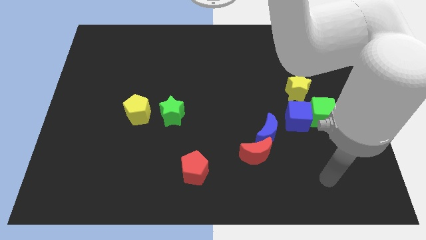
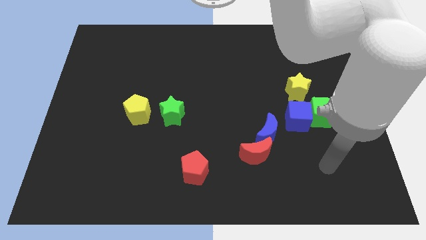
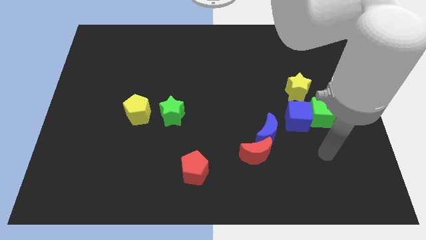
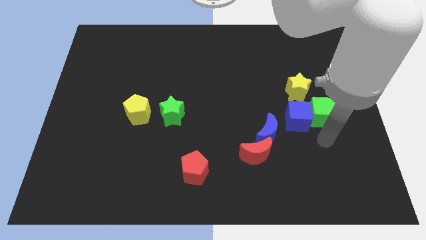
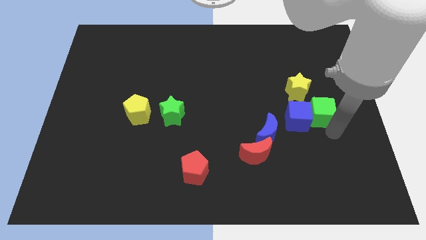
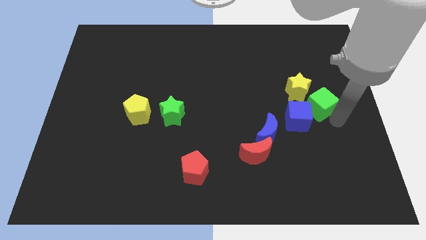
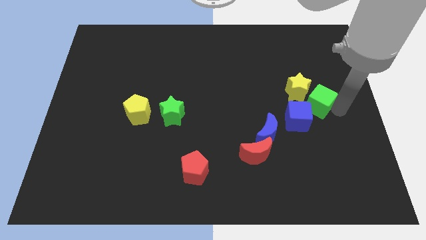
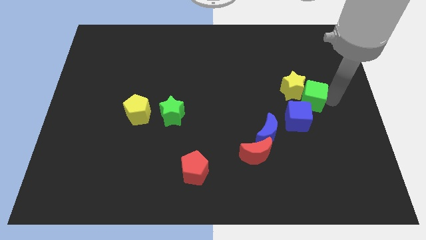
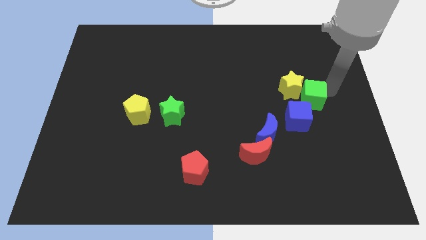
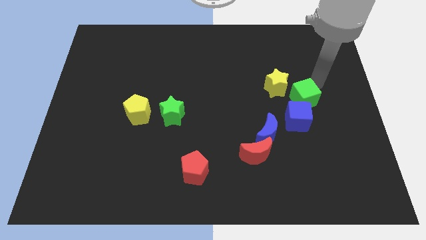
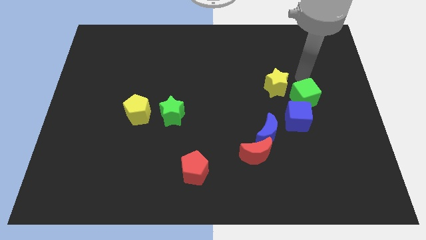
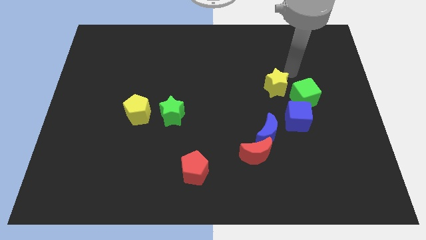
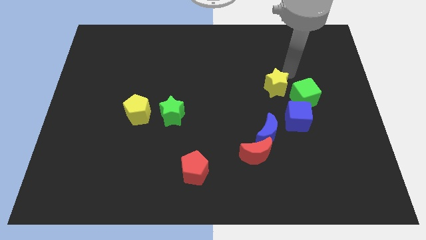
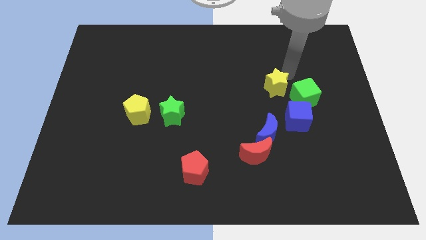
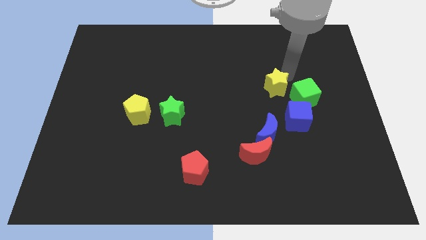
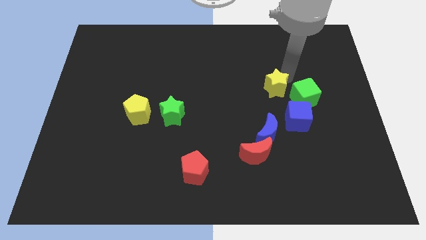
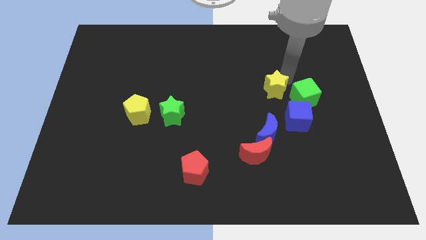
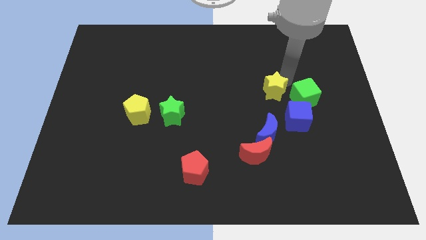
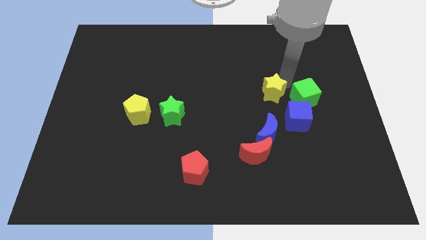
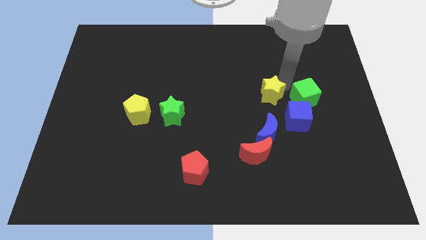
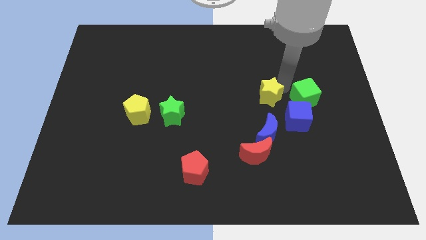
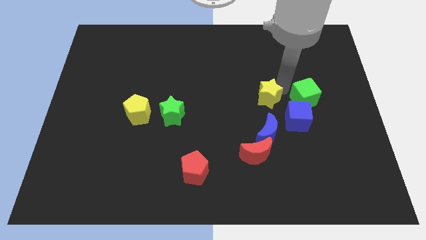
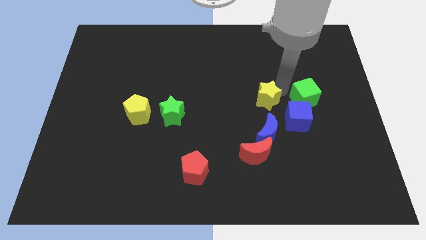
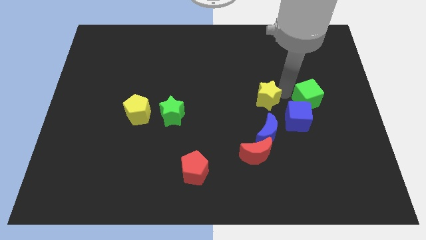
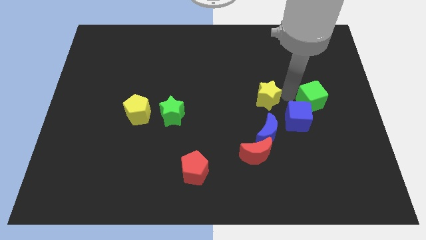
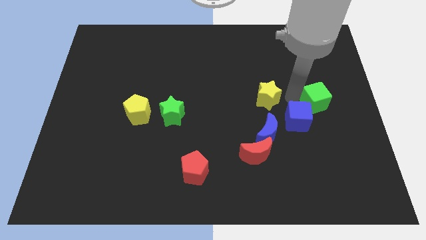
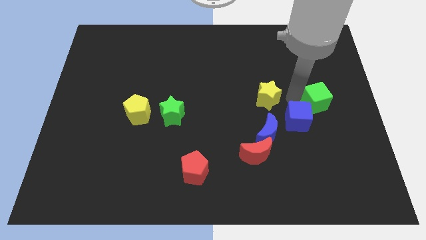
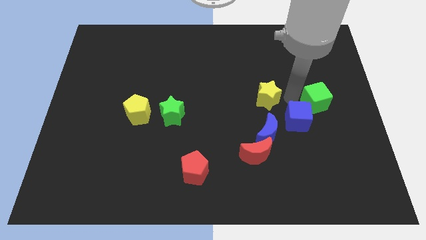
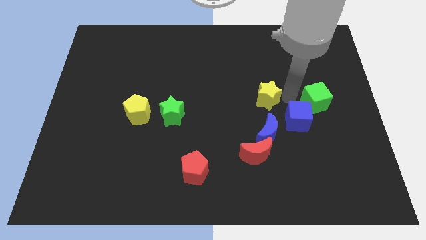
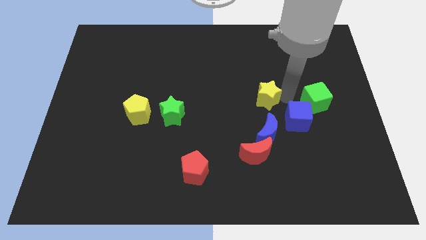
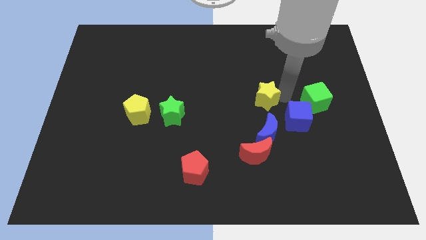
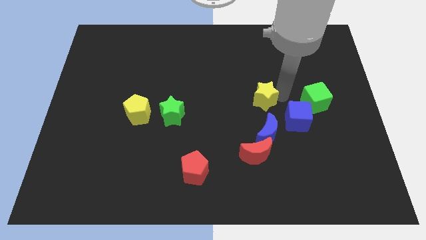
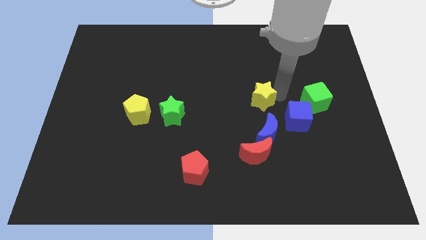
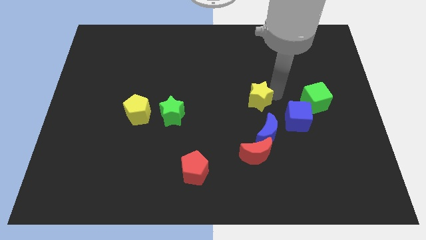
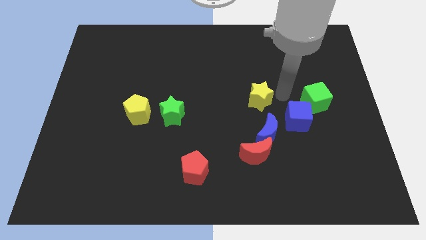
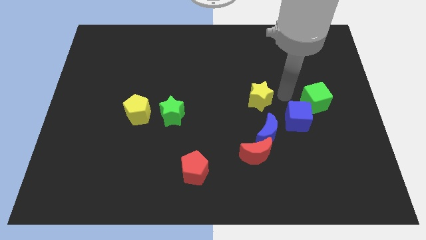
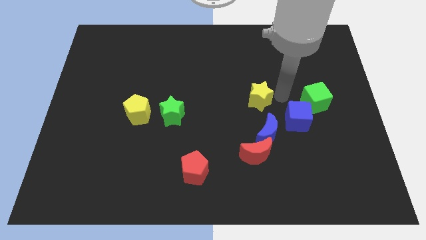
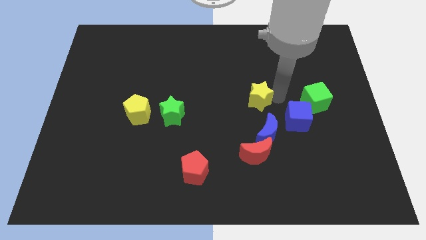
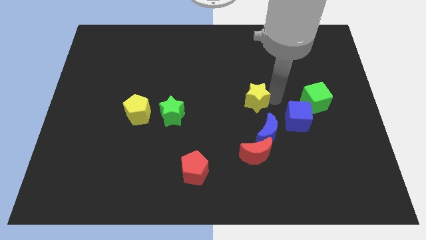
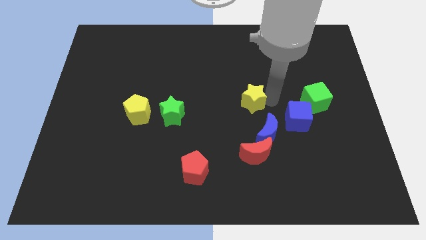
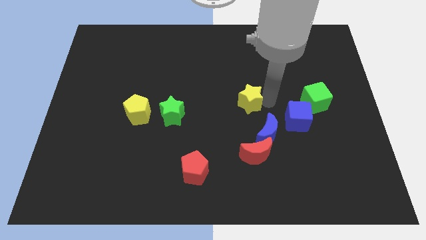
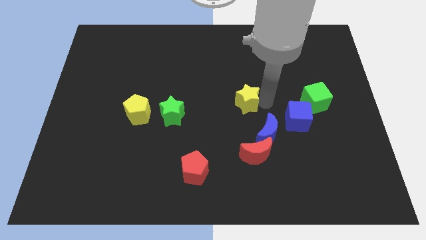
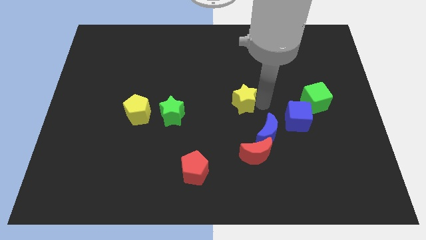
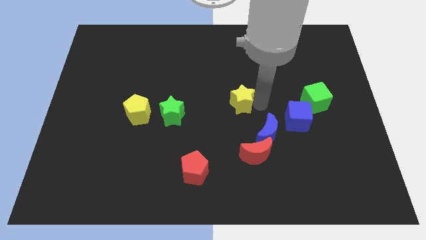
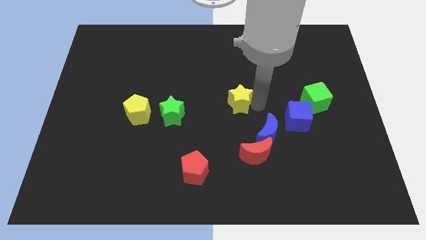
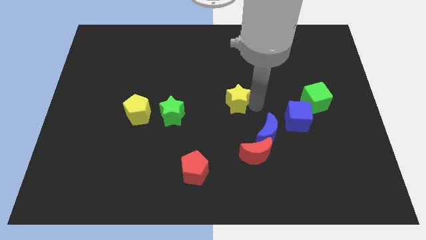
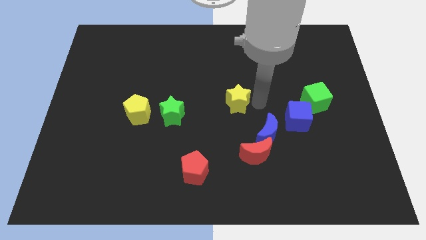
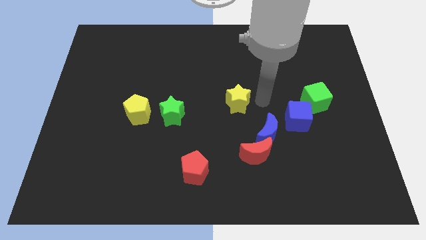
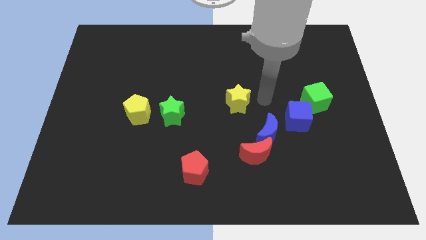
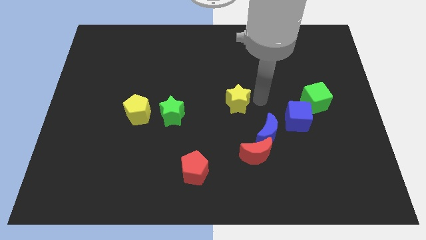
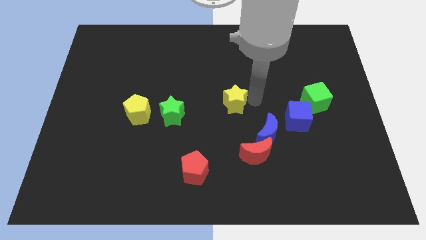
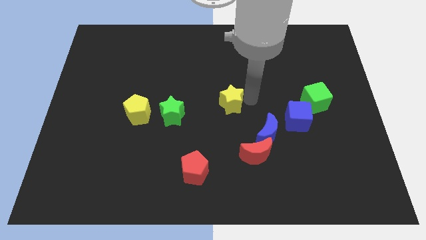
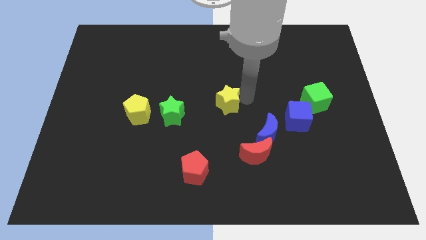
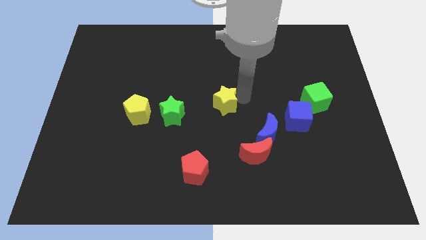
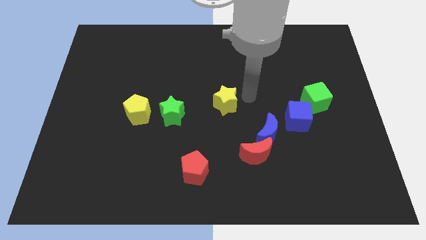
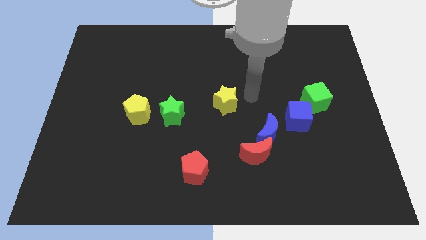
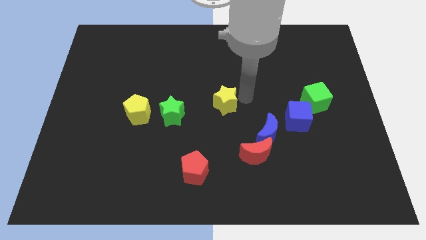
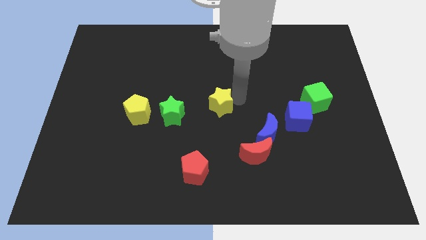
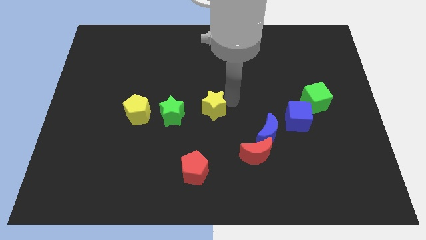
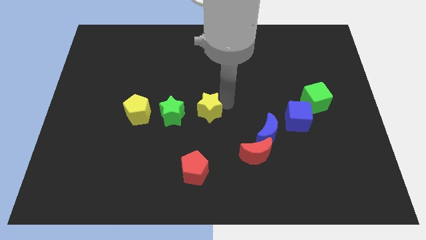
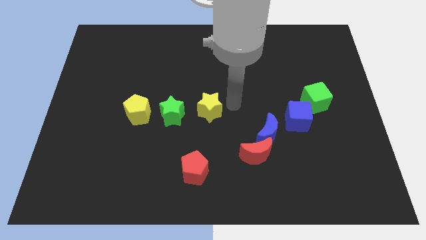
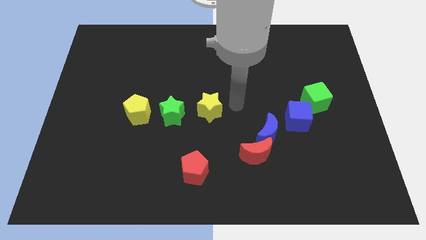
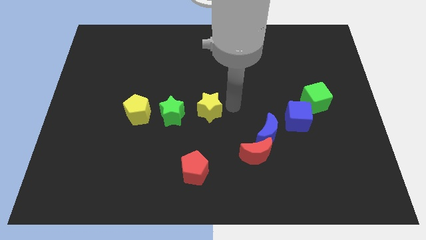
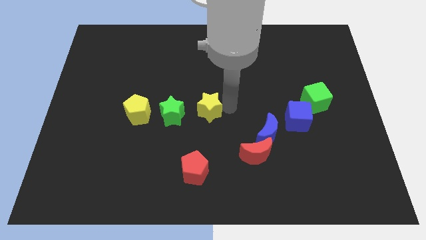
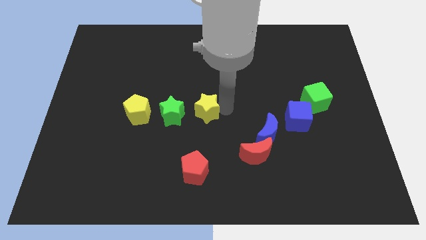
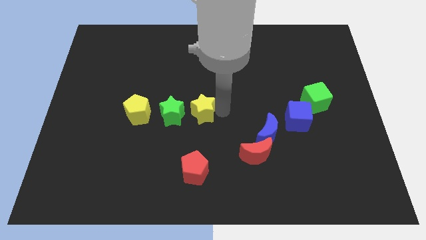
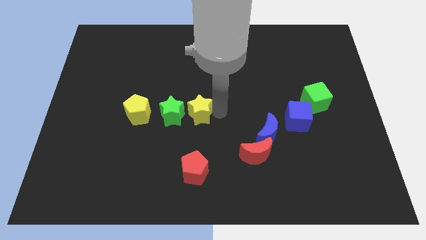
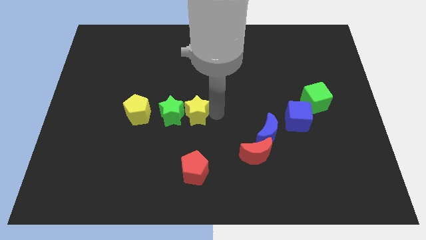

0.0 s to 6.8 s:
move the yellow star to the green star

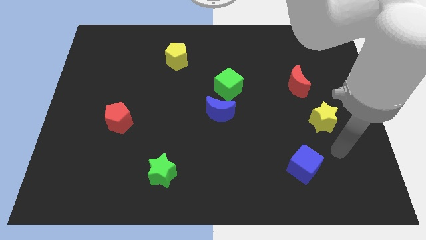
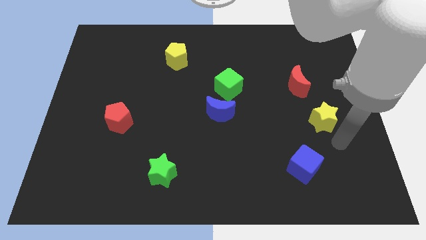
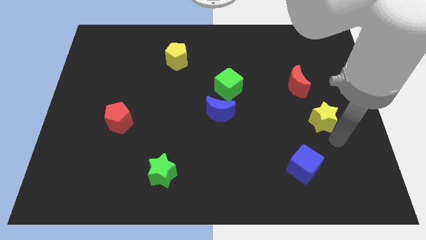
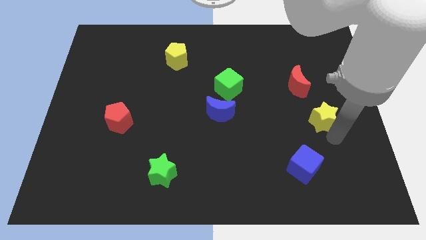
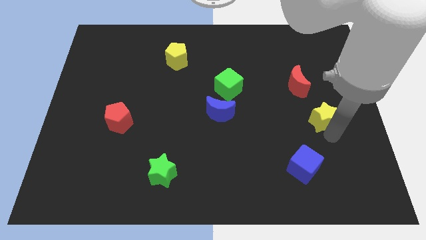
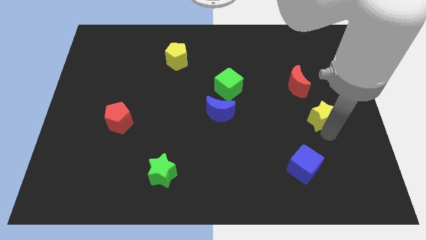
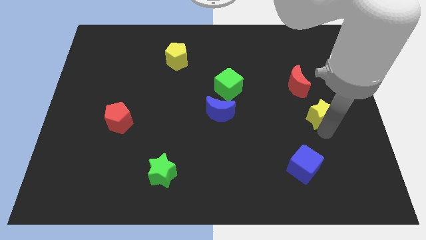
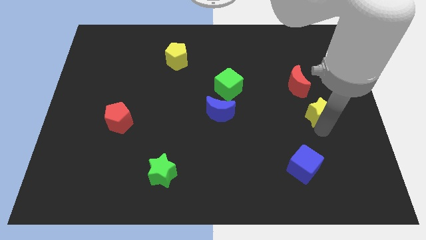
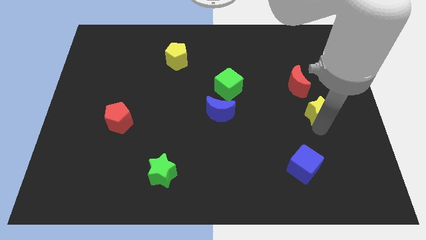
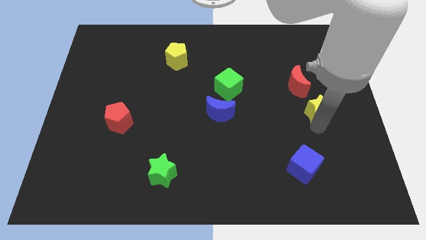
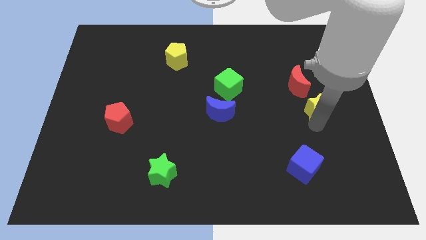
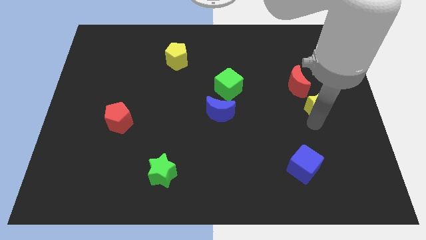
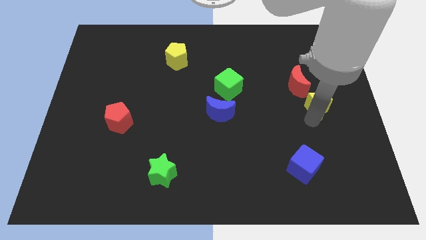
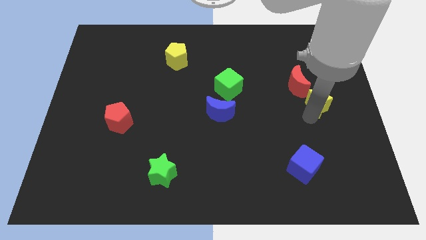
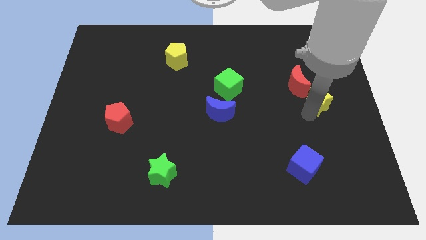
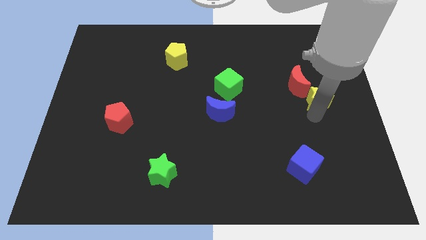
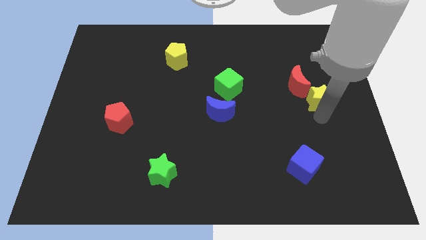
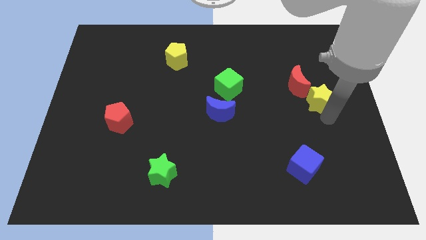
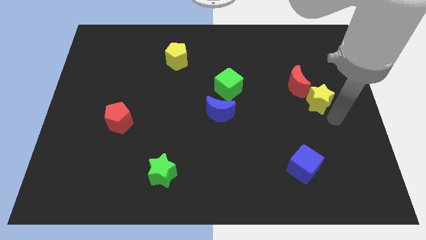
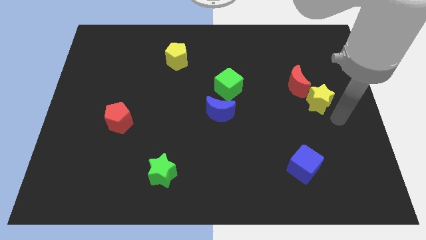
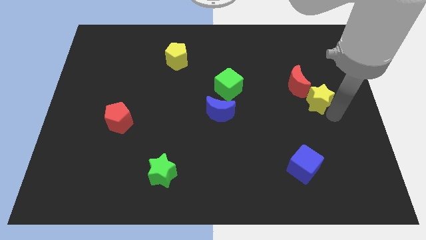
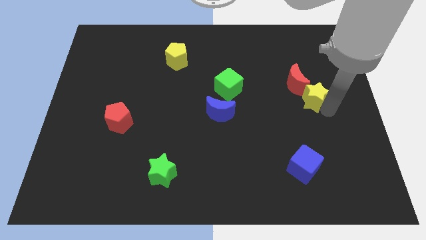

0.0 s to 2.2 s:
put the yellow star next to the red moon
